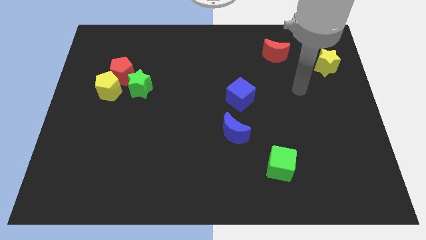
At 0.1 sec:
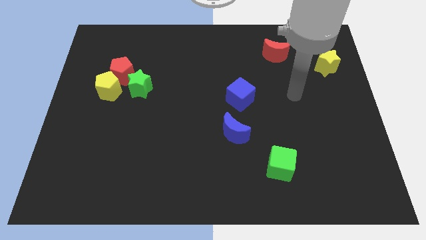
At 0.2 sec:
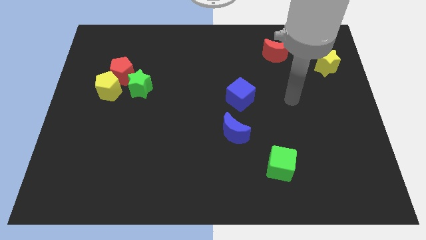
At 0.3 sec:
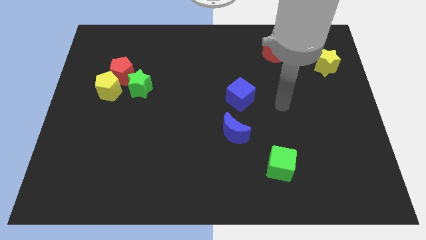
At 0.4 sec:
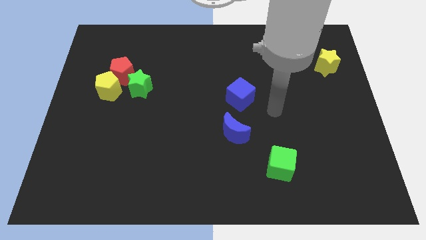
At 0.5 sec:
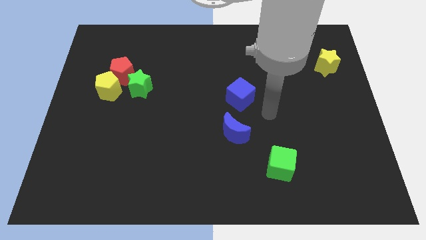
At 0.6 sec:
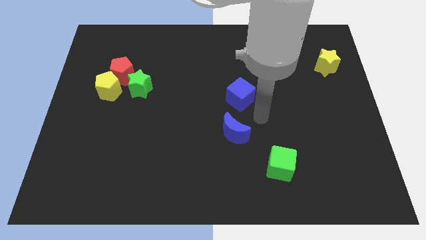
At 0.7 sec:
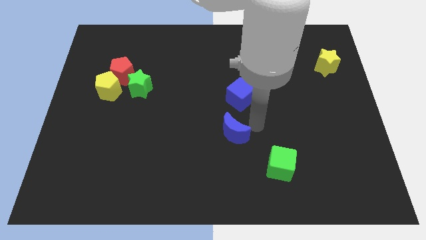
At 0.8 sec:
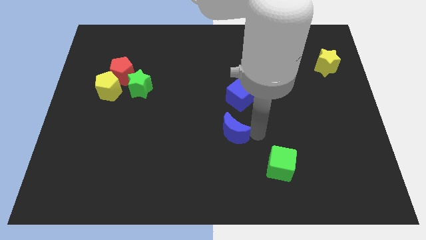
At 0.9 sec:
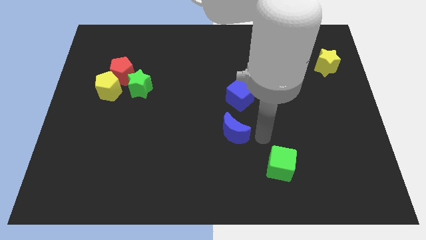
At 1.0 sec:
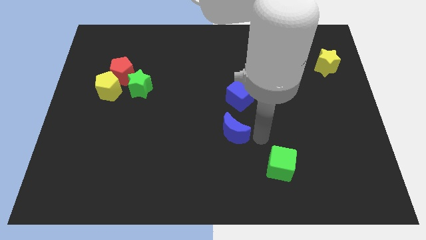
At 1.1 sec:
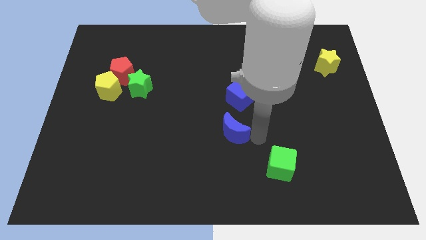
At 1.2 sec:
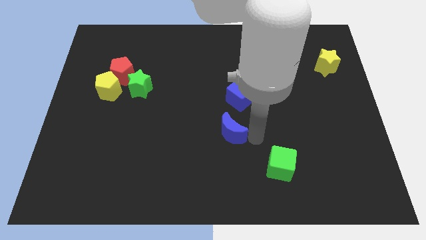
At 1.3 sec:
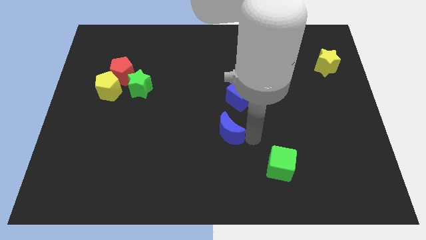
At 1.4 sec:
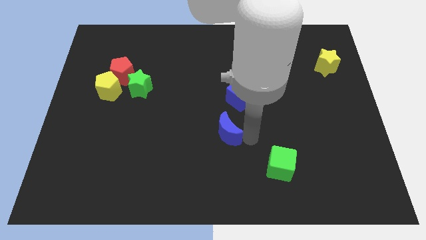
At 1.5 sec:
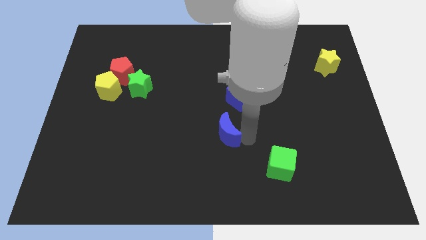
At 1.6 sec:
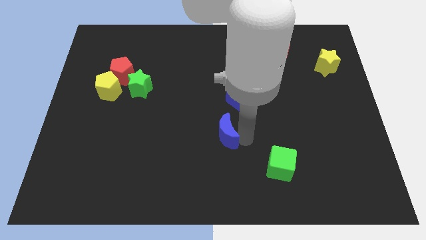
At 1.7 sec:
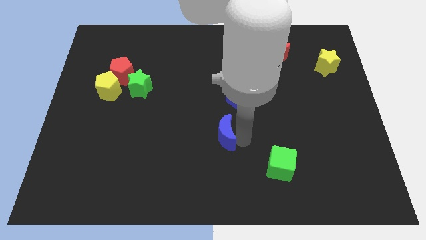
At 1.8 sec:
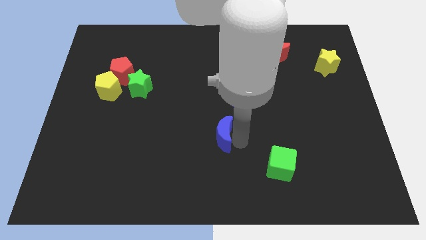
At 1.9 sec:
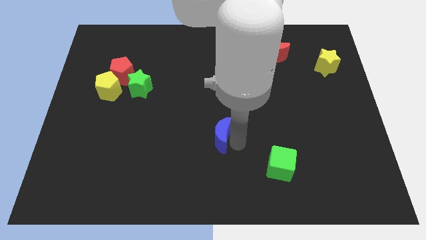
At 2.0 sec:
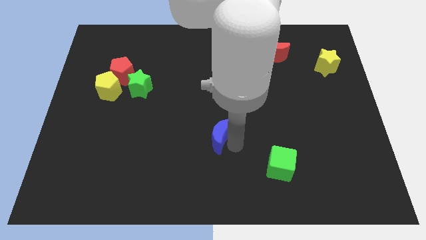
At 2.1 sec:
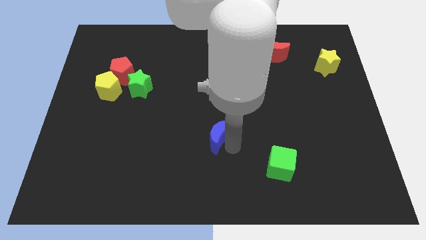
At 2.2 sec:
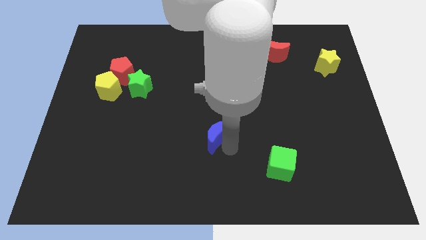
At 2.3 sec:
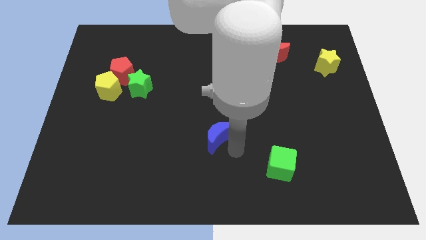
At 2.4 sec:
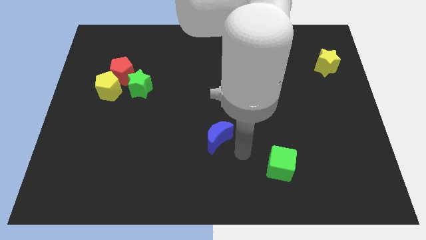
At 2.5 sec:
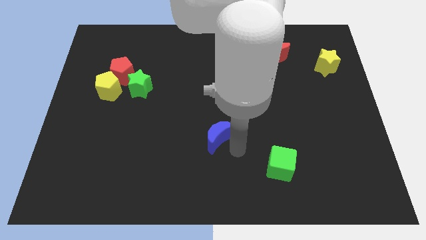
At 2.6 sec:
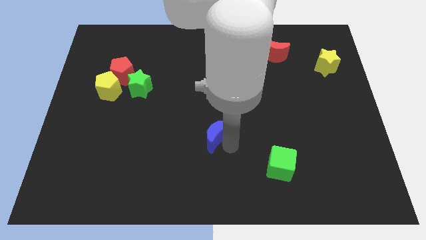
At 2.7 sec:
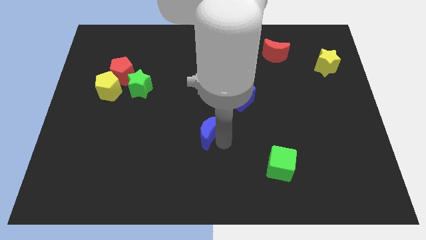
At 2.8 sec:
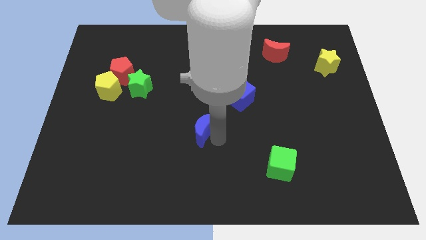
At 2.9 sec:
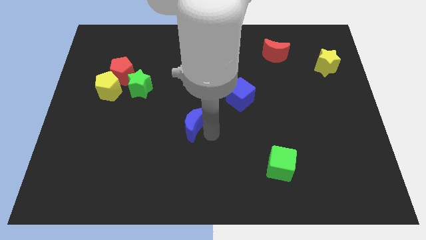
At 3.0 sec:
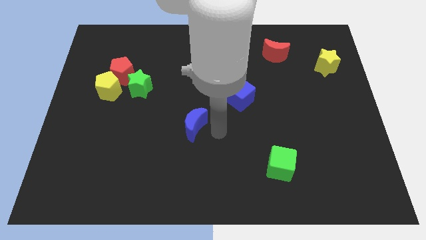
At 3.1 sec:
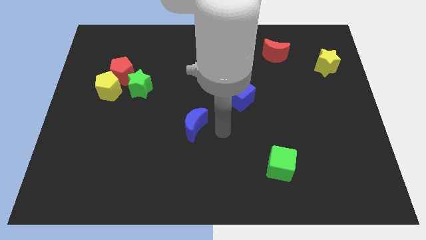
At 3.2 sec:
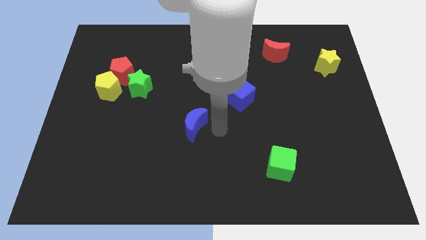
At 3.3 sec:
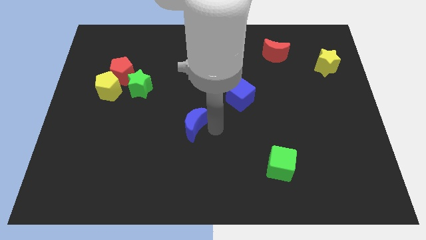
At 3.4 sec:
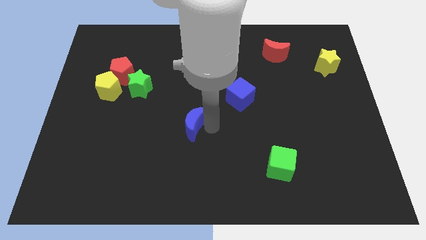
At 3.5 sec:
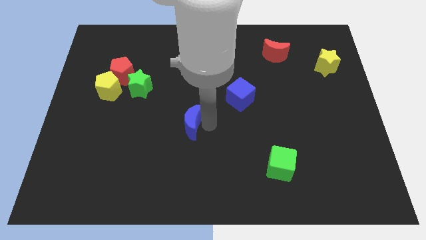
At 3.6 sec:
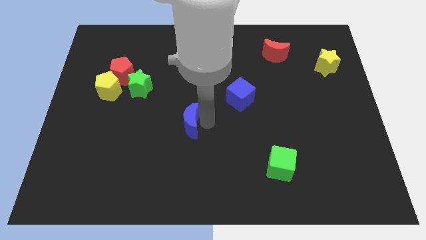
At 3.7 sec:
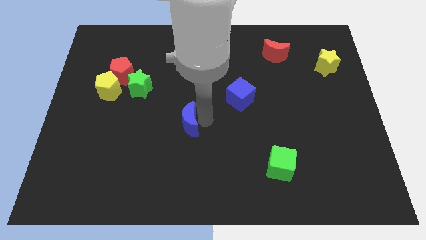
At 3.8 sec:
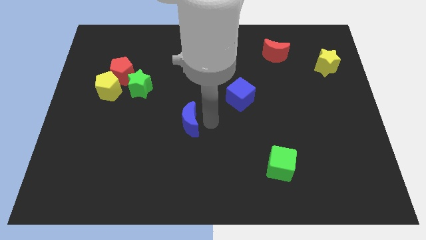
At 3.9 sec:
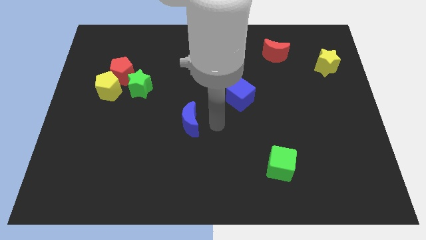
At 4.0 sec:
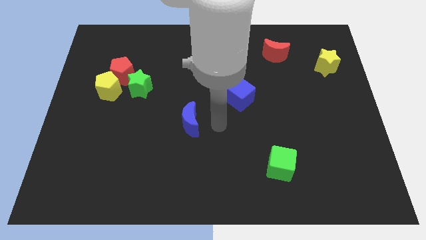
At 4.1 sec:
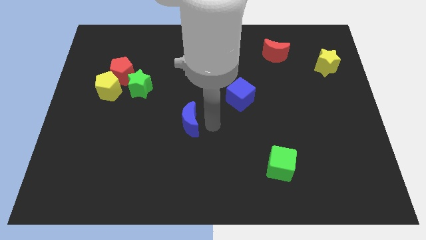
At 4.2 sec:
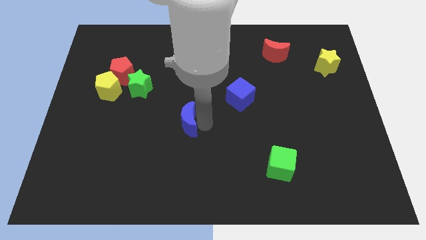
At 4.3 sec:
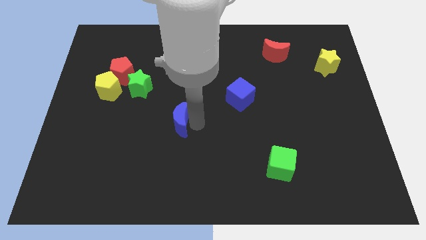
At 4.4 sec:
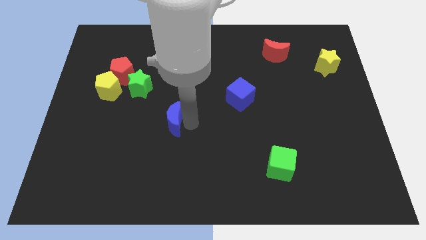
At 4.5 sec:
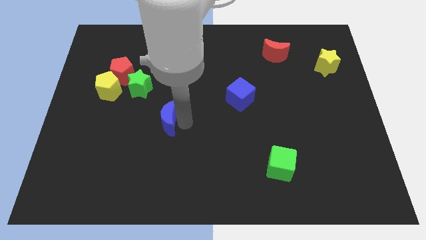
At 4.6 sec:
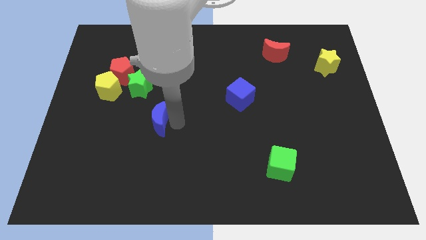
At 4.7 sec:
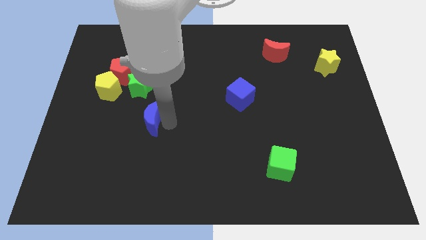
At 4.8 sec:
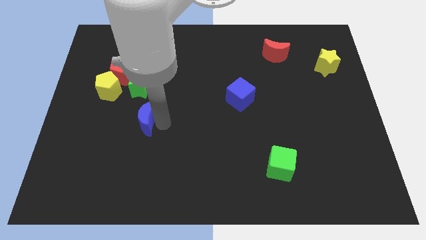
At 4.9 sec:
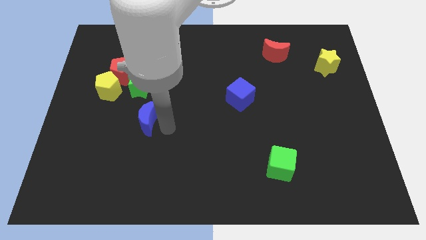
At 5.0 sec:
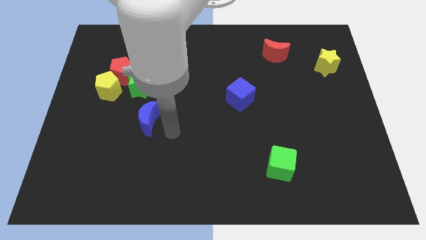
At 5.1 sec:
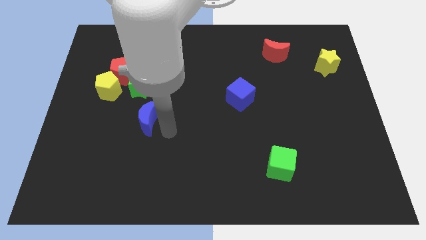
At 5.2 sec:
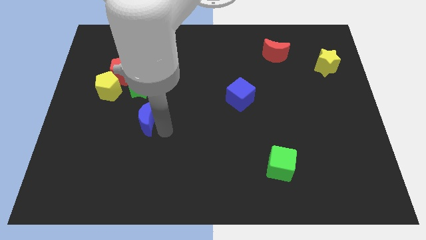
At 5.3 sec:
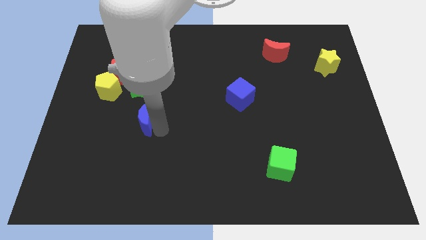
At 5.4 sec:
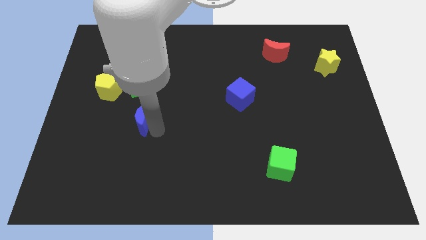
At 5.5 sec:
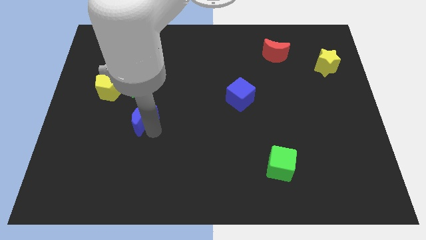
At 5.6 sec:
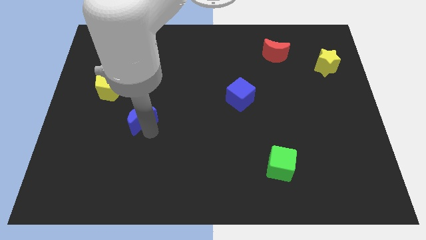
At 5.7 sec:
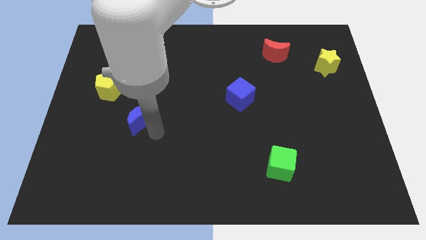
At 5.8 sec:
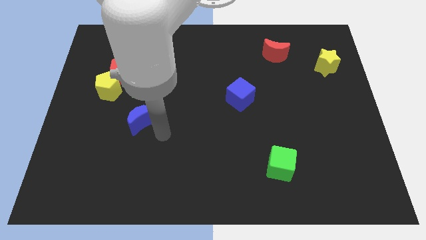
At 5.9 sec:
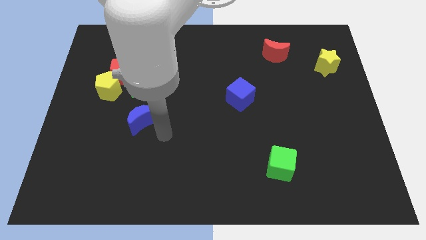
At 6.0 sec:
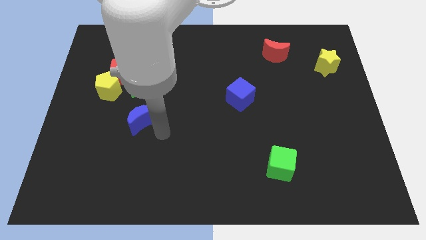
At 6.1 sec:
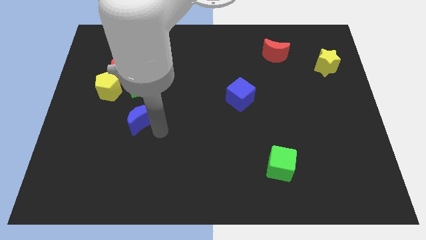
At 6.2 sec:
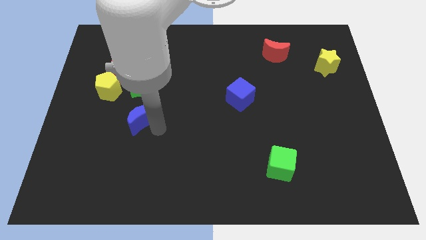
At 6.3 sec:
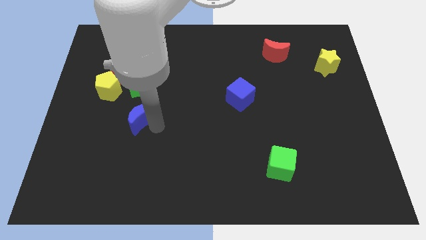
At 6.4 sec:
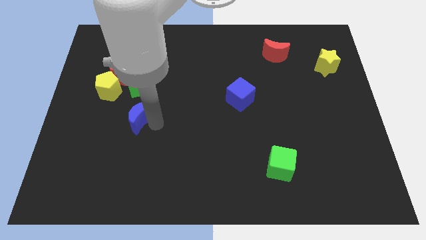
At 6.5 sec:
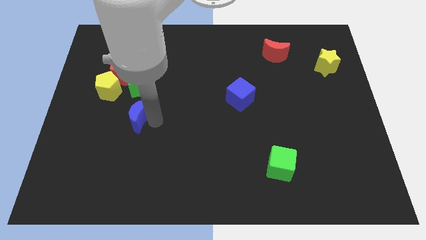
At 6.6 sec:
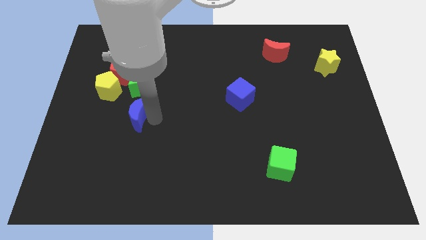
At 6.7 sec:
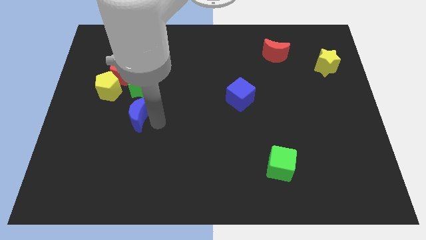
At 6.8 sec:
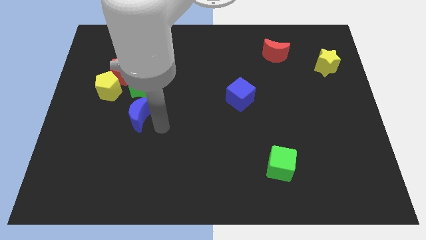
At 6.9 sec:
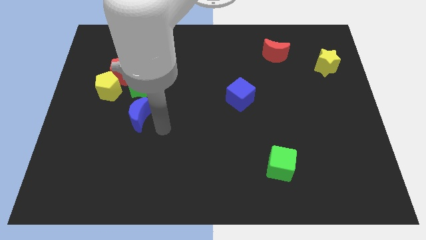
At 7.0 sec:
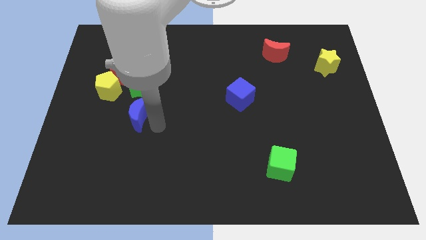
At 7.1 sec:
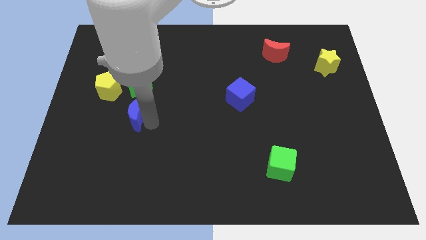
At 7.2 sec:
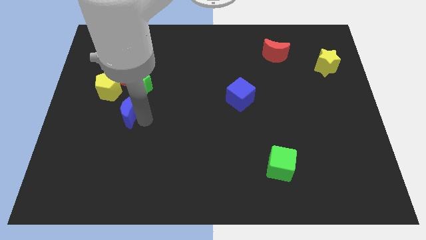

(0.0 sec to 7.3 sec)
put the blue moon below the red pentagon
